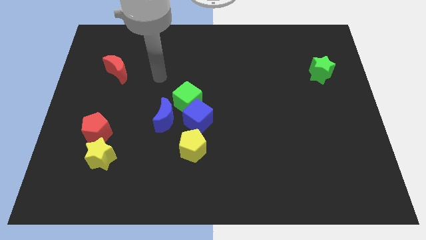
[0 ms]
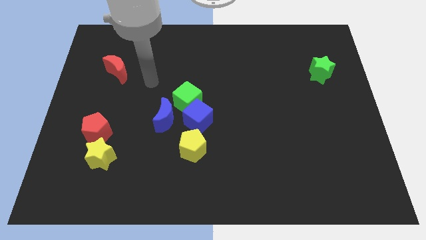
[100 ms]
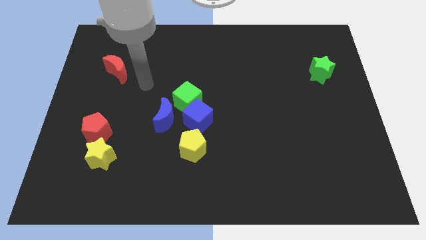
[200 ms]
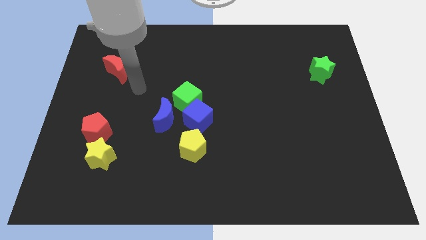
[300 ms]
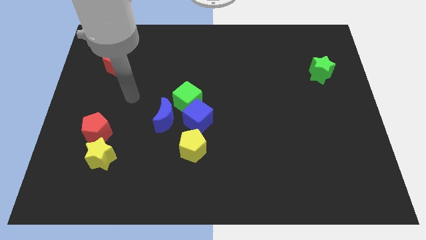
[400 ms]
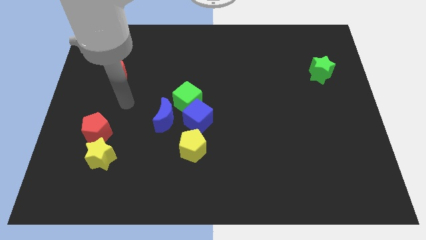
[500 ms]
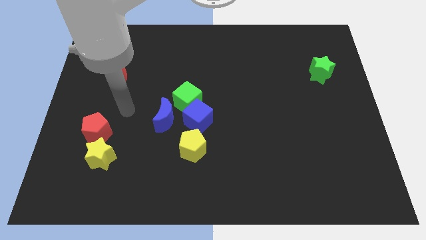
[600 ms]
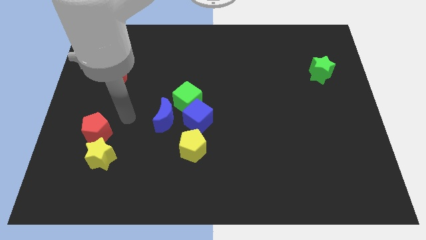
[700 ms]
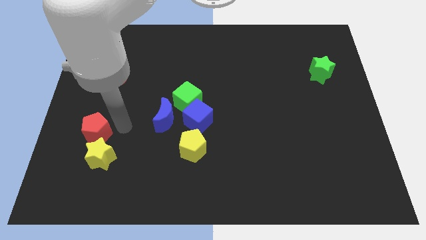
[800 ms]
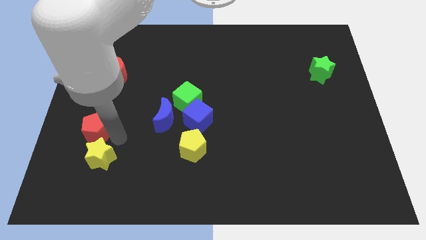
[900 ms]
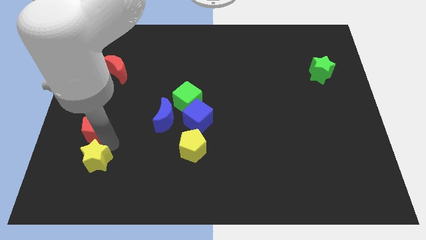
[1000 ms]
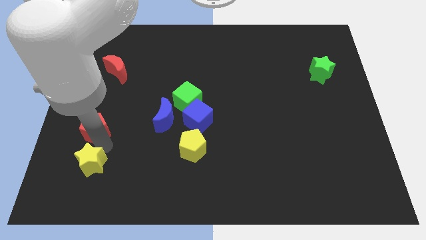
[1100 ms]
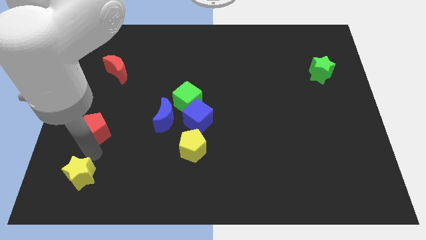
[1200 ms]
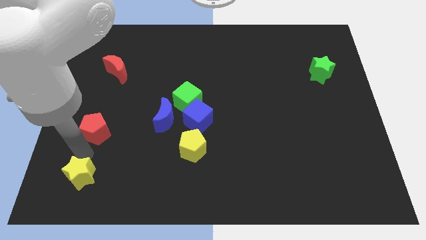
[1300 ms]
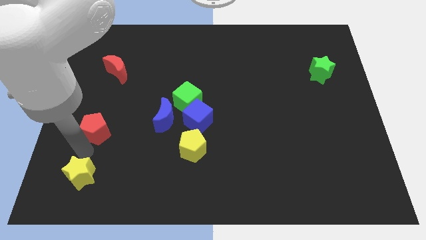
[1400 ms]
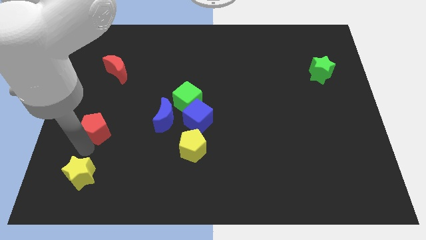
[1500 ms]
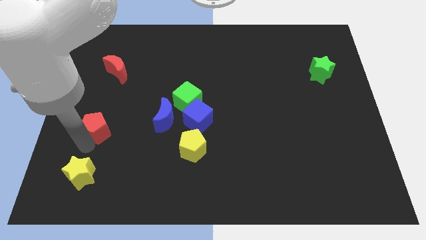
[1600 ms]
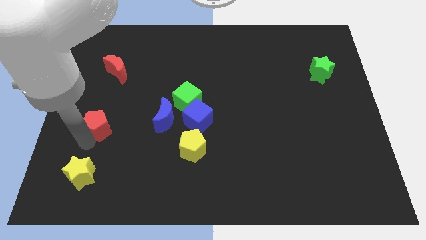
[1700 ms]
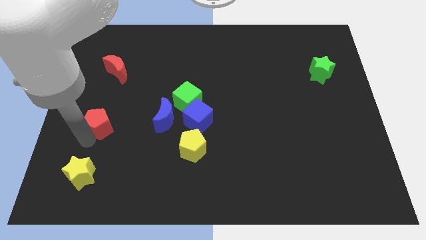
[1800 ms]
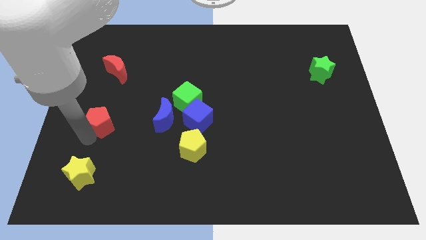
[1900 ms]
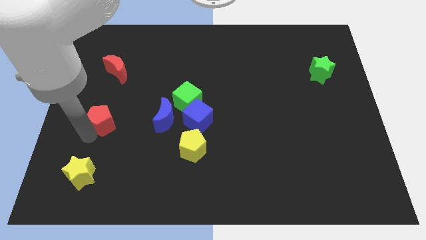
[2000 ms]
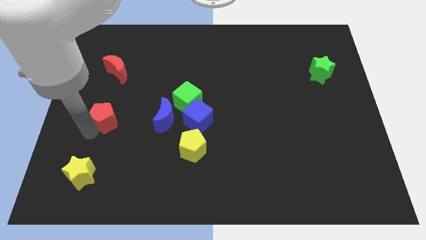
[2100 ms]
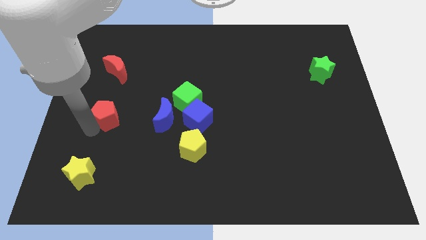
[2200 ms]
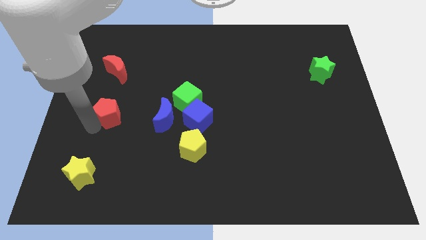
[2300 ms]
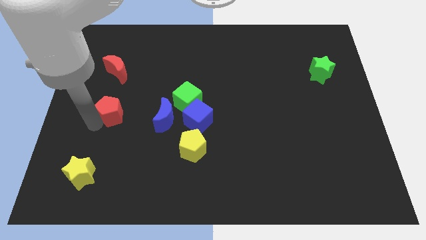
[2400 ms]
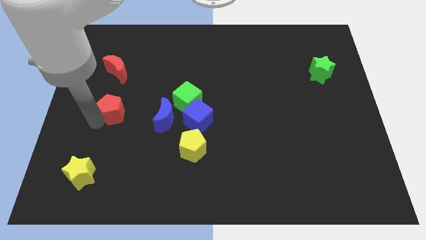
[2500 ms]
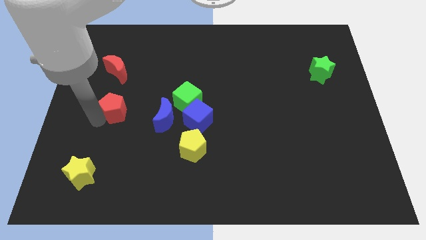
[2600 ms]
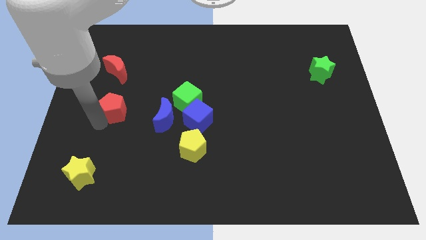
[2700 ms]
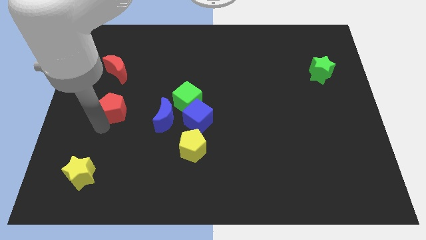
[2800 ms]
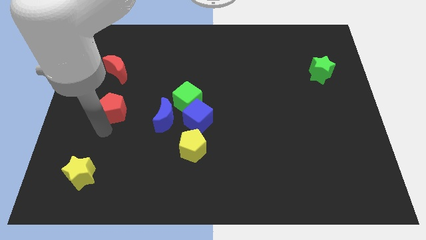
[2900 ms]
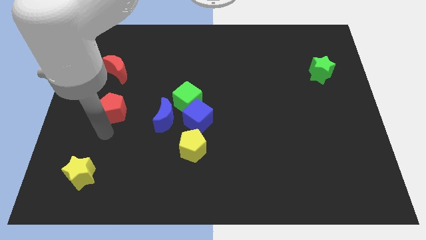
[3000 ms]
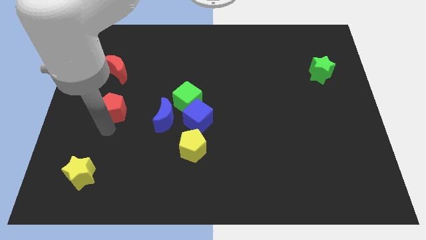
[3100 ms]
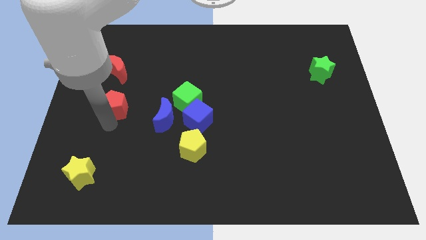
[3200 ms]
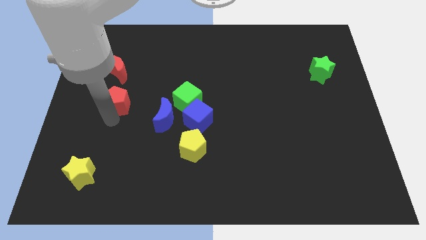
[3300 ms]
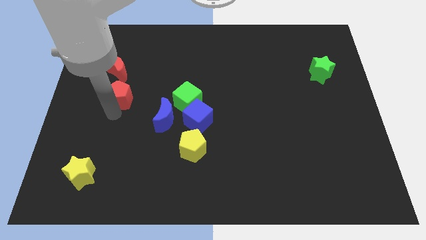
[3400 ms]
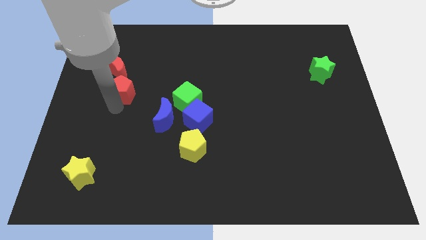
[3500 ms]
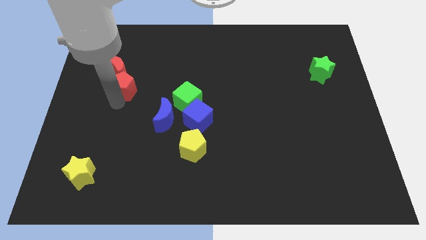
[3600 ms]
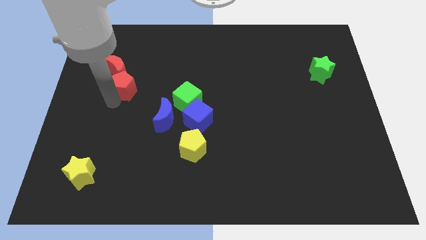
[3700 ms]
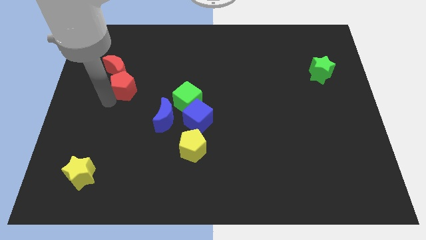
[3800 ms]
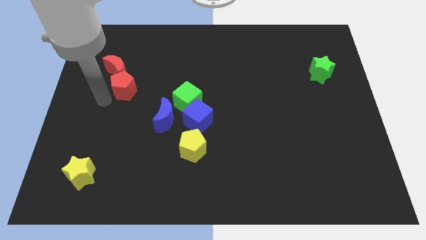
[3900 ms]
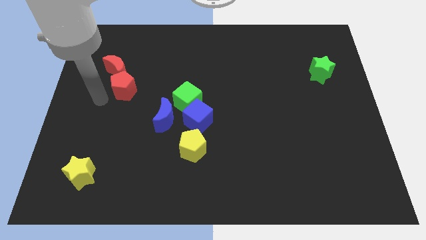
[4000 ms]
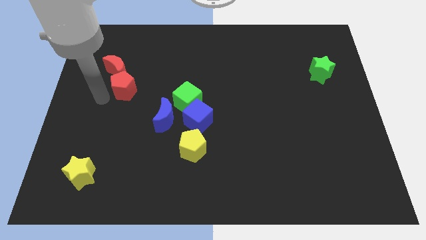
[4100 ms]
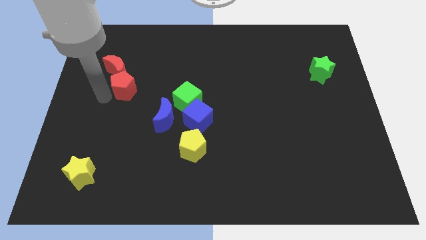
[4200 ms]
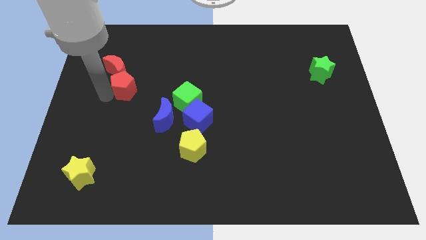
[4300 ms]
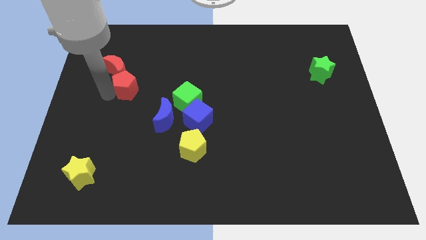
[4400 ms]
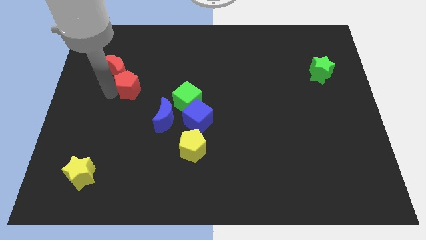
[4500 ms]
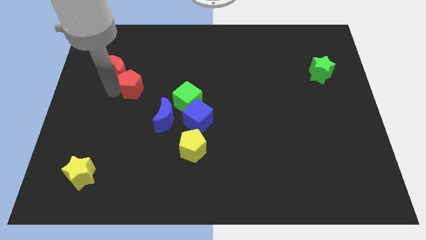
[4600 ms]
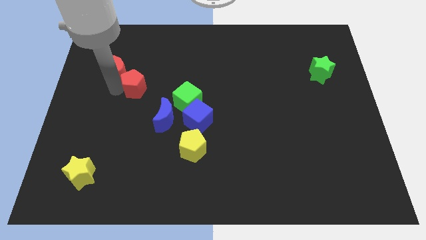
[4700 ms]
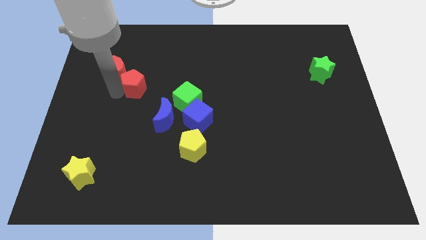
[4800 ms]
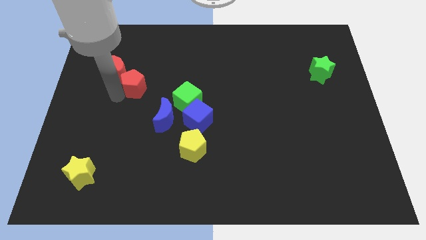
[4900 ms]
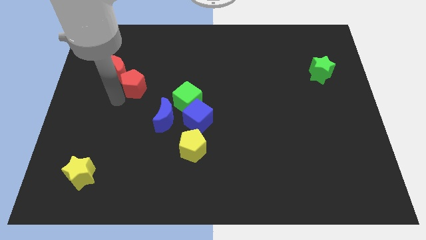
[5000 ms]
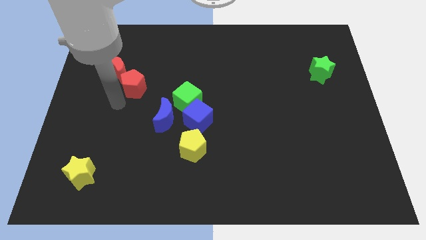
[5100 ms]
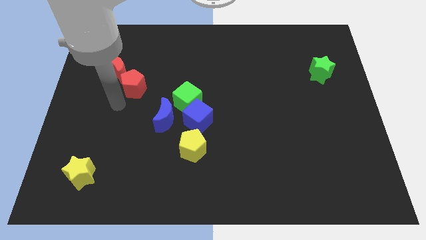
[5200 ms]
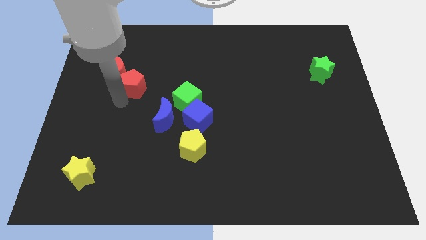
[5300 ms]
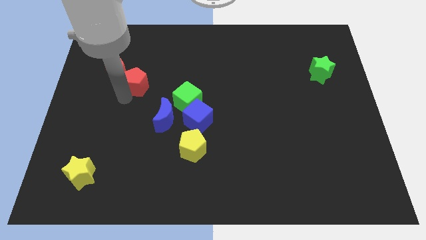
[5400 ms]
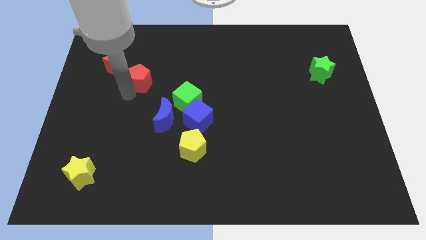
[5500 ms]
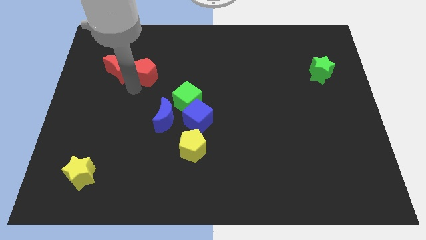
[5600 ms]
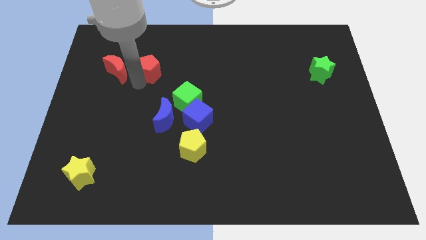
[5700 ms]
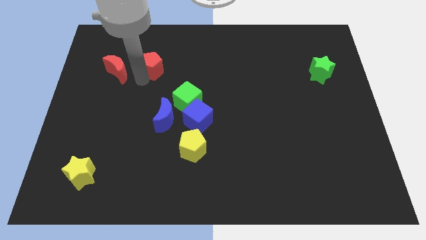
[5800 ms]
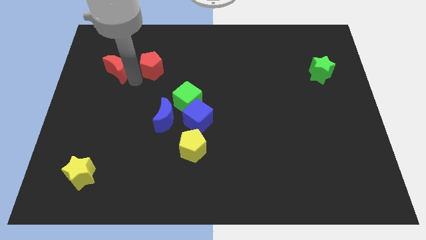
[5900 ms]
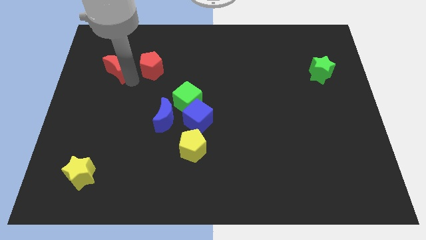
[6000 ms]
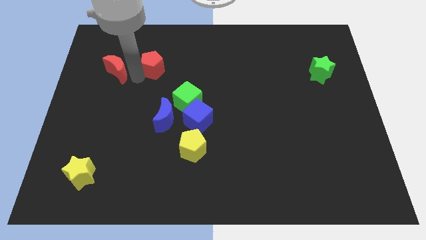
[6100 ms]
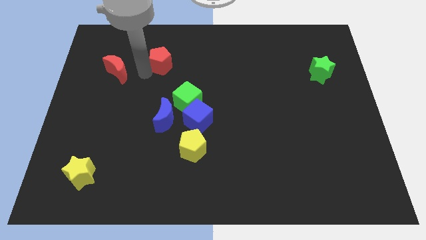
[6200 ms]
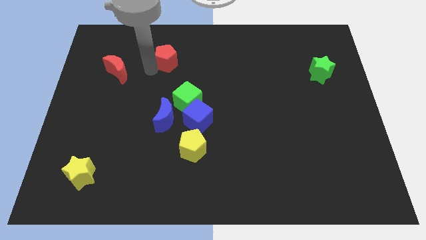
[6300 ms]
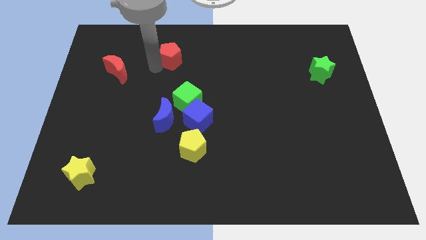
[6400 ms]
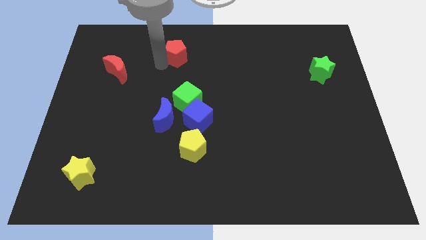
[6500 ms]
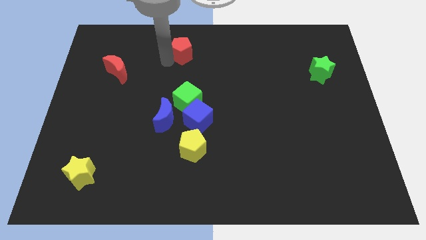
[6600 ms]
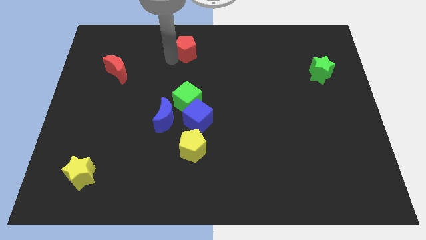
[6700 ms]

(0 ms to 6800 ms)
put the red pentagon to the top
